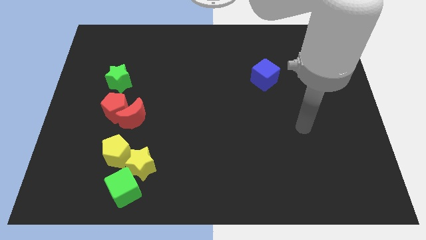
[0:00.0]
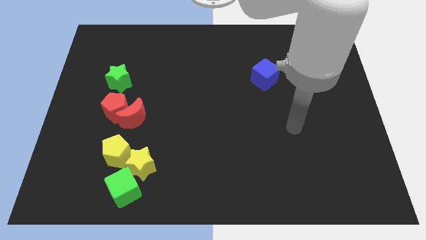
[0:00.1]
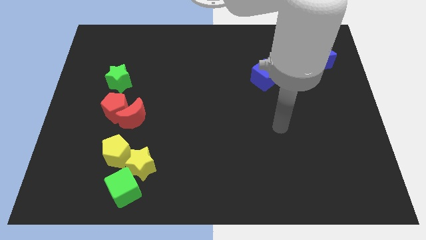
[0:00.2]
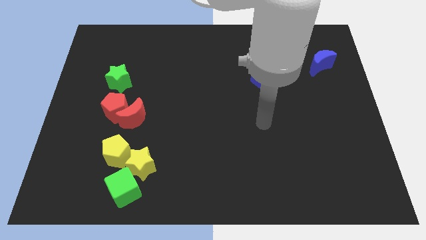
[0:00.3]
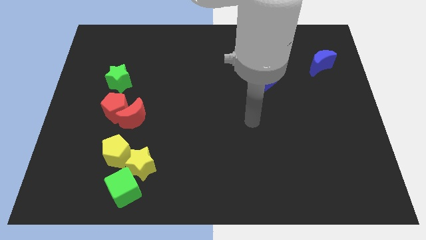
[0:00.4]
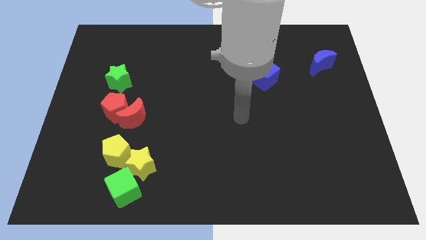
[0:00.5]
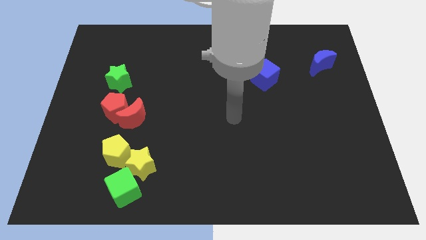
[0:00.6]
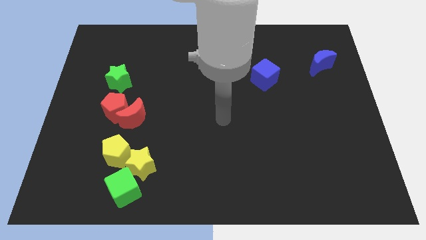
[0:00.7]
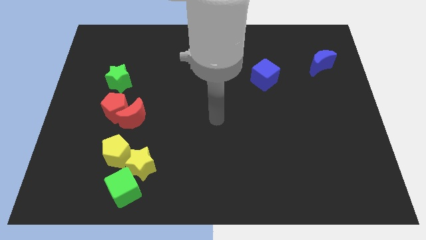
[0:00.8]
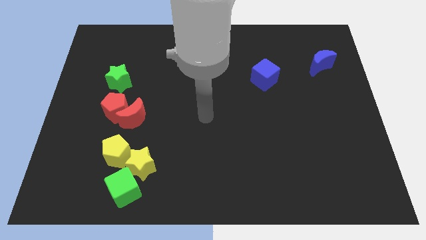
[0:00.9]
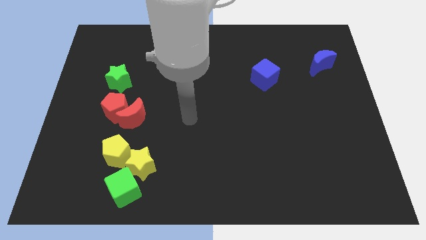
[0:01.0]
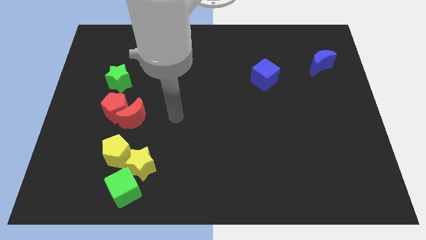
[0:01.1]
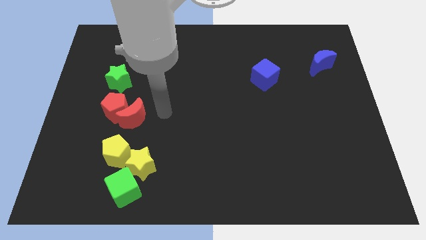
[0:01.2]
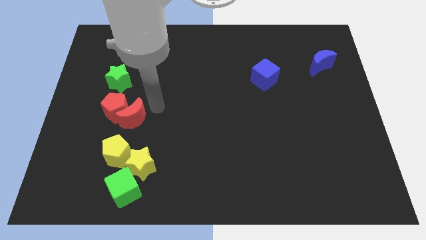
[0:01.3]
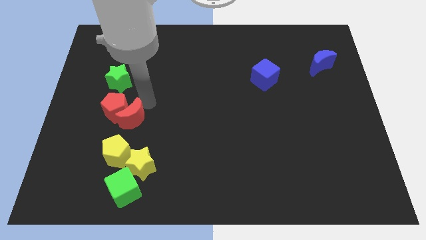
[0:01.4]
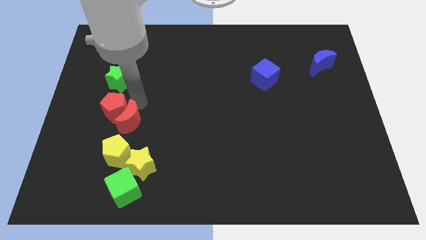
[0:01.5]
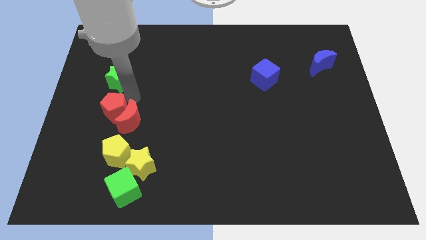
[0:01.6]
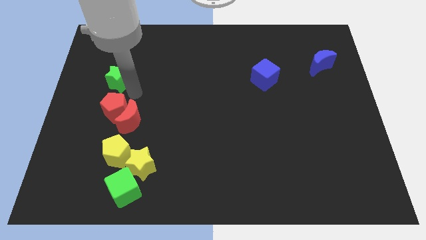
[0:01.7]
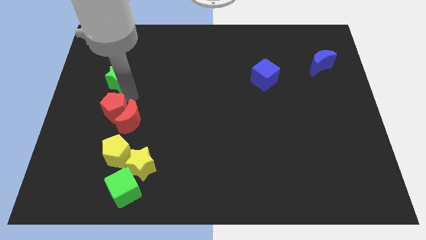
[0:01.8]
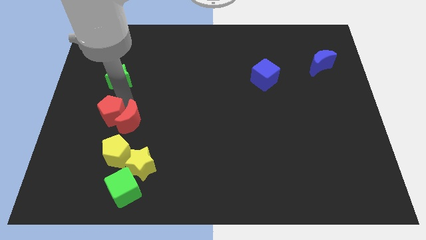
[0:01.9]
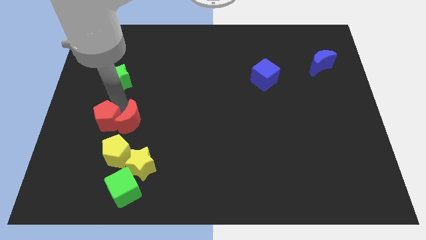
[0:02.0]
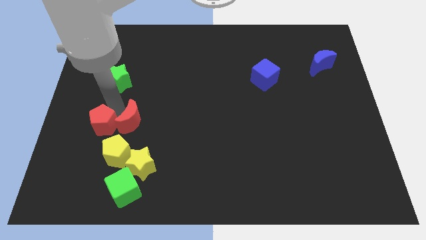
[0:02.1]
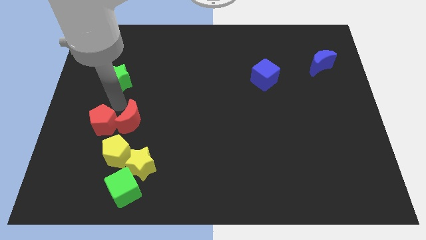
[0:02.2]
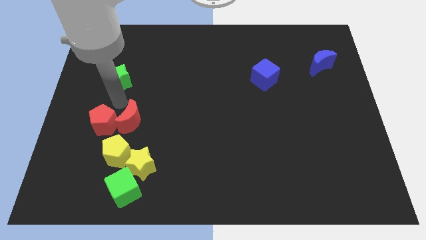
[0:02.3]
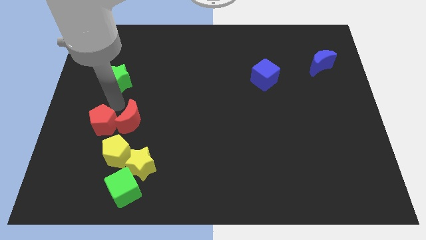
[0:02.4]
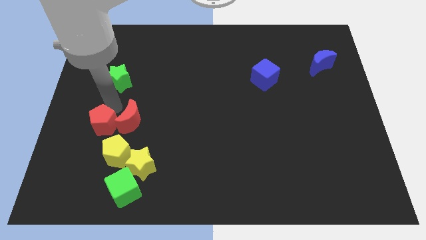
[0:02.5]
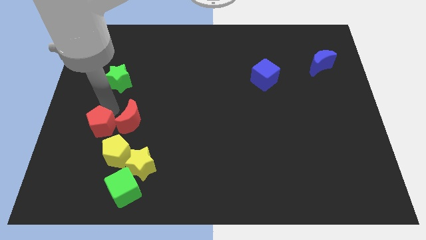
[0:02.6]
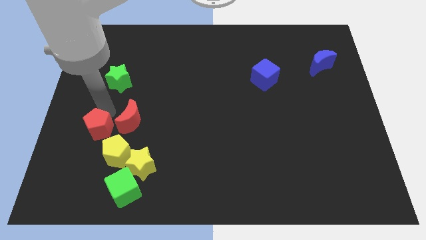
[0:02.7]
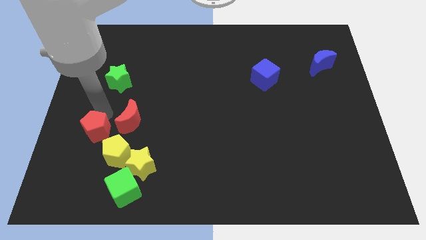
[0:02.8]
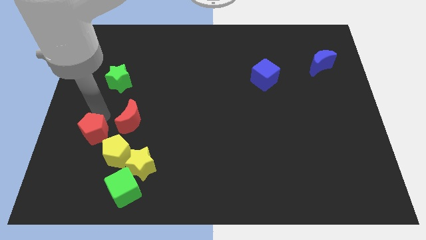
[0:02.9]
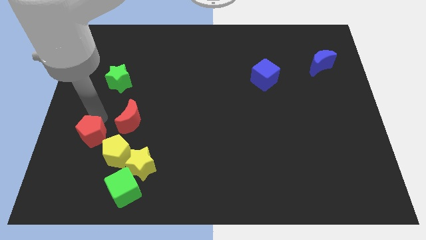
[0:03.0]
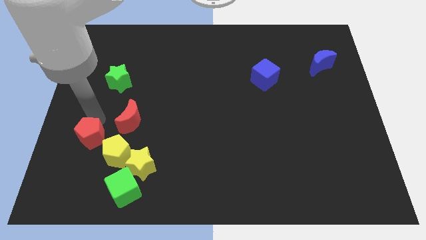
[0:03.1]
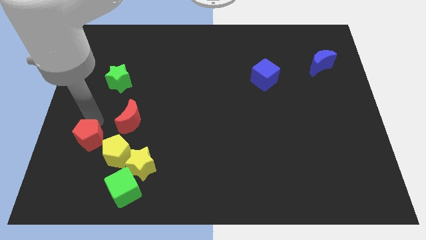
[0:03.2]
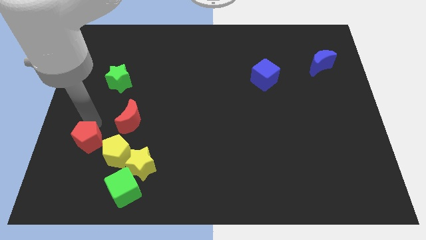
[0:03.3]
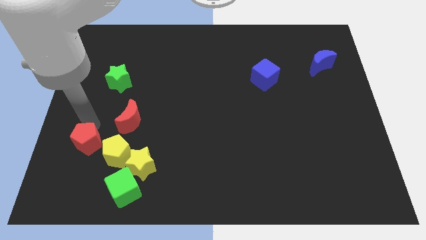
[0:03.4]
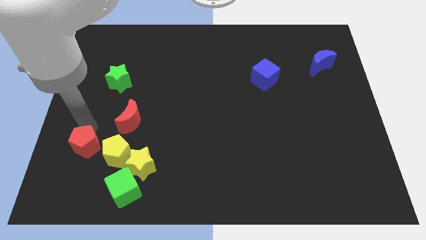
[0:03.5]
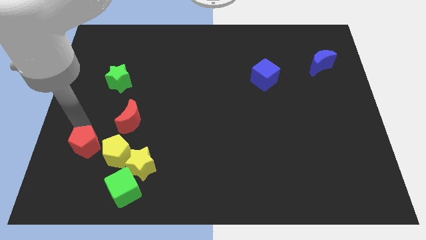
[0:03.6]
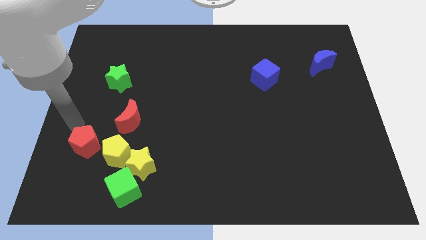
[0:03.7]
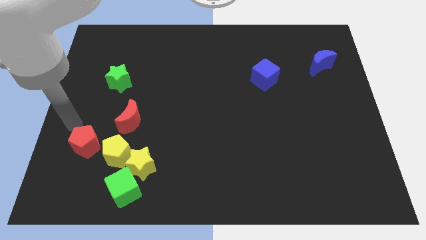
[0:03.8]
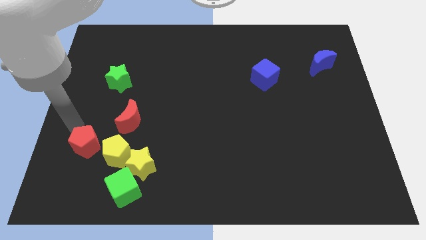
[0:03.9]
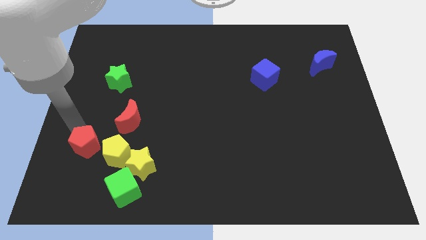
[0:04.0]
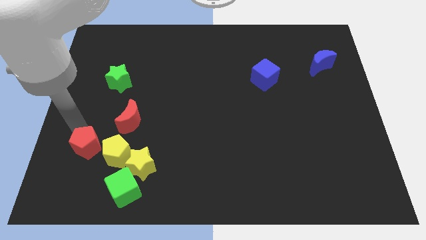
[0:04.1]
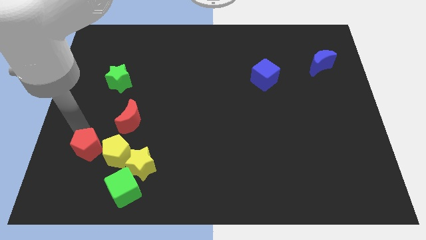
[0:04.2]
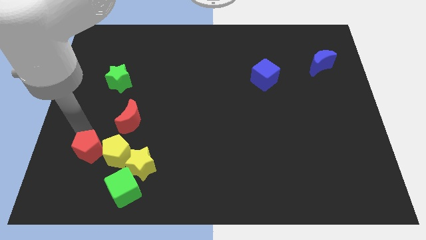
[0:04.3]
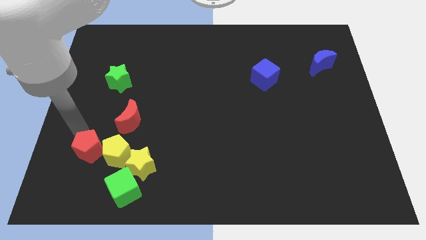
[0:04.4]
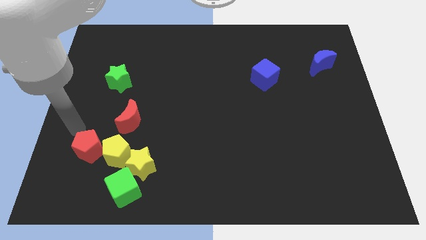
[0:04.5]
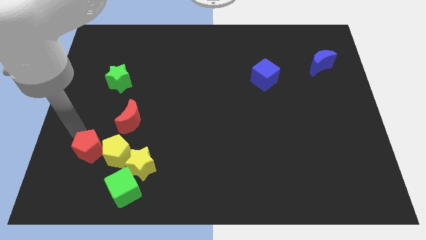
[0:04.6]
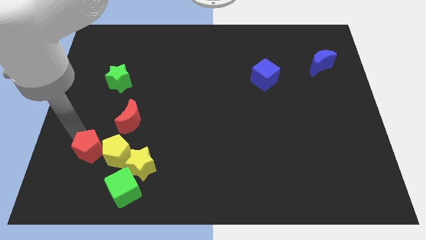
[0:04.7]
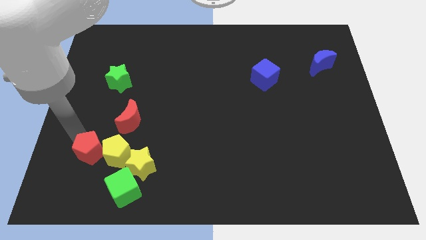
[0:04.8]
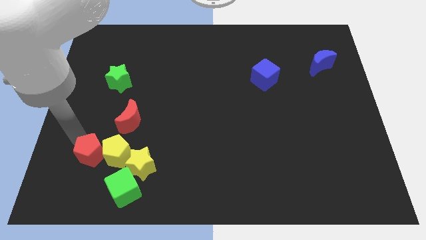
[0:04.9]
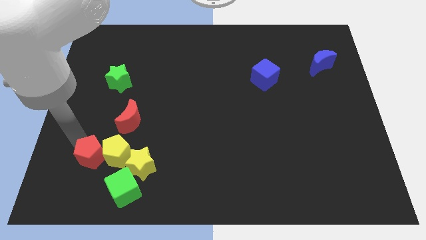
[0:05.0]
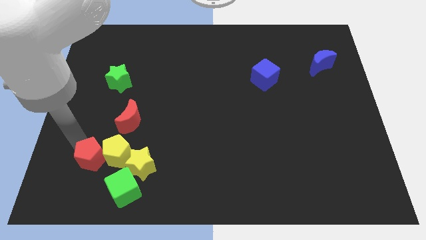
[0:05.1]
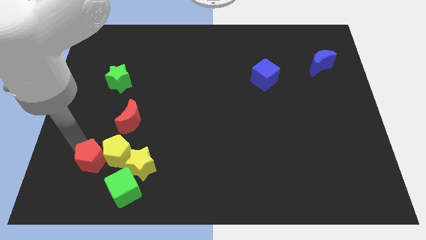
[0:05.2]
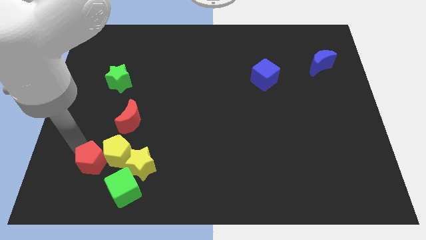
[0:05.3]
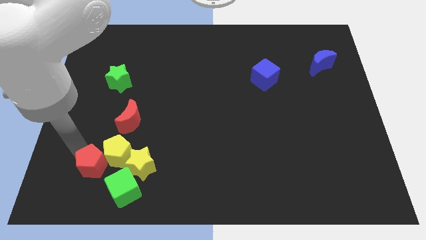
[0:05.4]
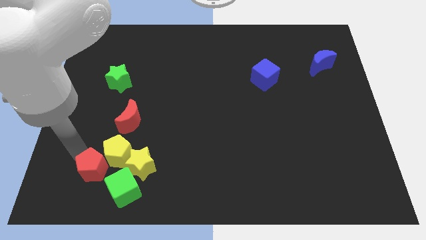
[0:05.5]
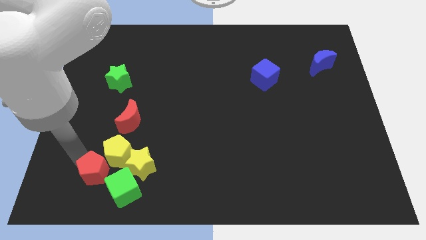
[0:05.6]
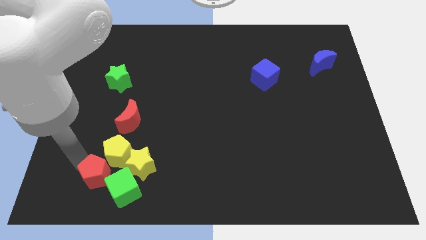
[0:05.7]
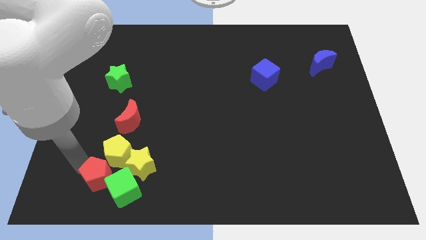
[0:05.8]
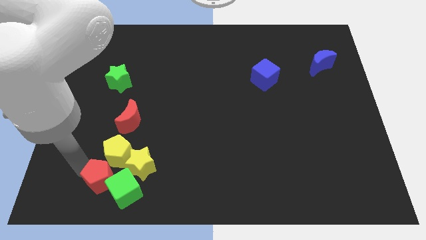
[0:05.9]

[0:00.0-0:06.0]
push the red pentagon towards the green cube

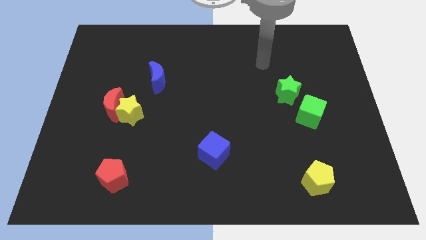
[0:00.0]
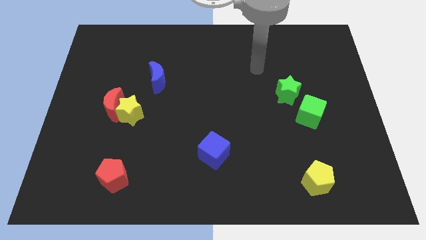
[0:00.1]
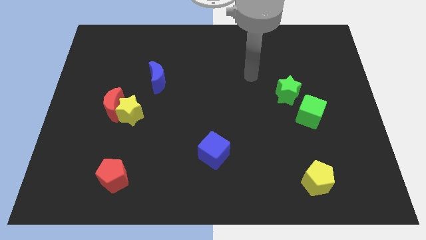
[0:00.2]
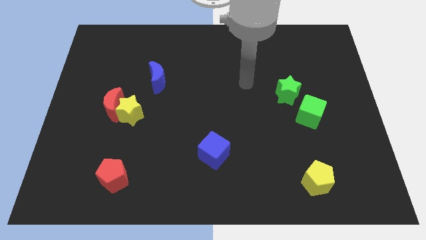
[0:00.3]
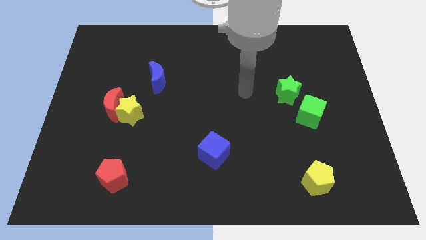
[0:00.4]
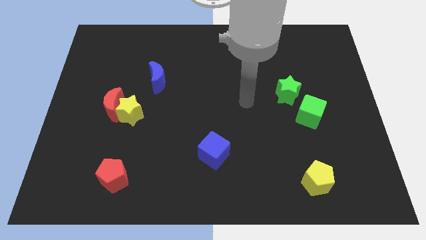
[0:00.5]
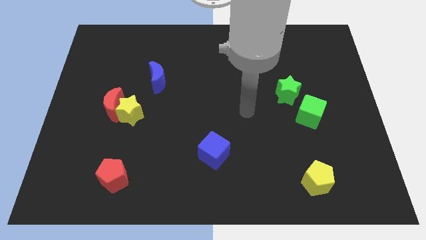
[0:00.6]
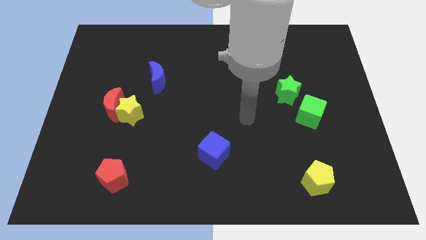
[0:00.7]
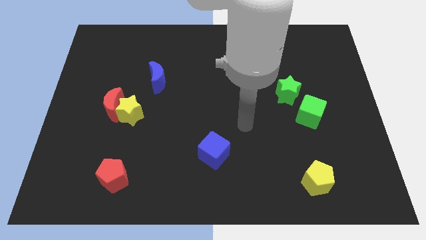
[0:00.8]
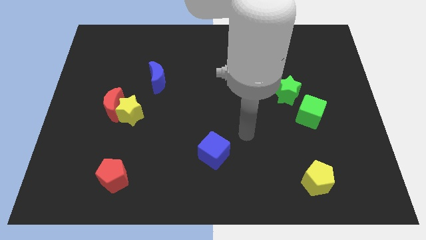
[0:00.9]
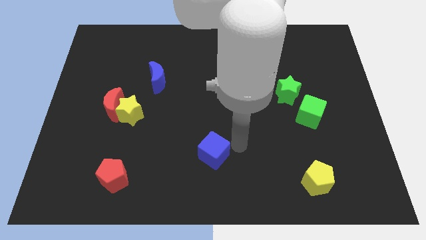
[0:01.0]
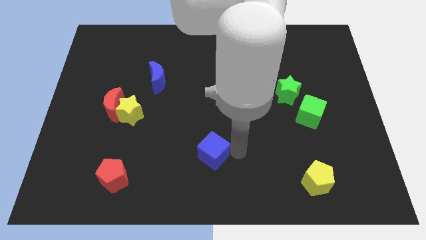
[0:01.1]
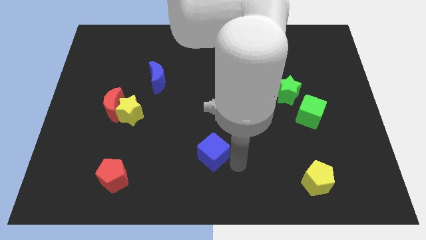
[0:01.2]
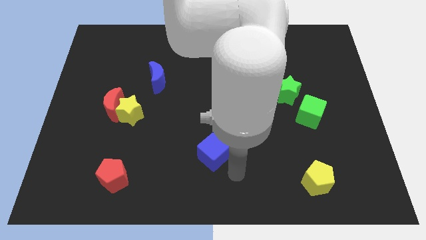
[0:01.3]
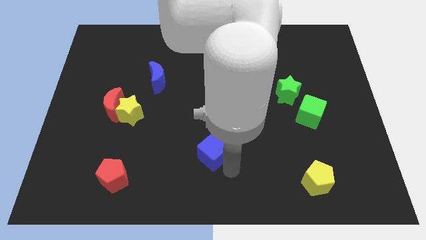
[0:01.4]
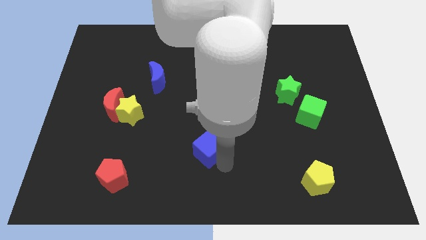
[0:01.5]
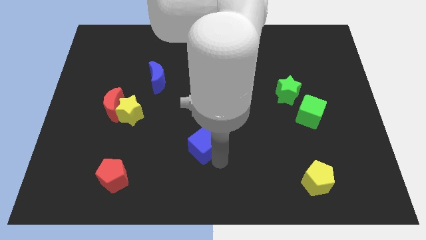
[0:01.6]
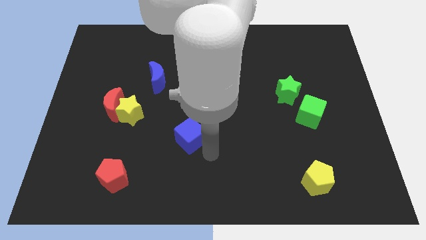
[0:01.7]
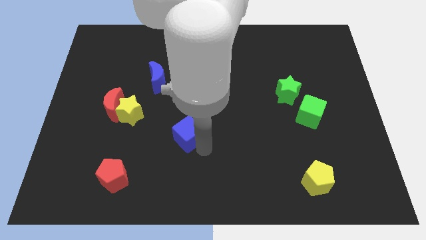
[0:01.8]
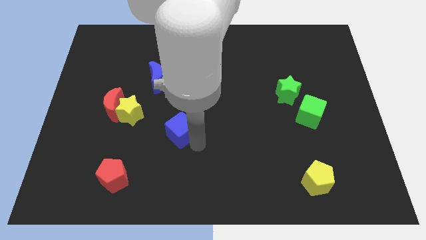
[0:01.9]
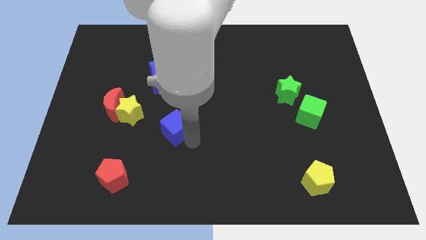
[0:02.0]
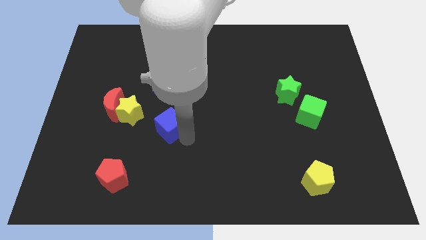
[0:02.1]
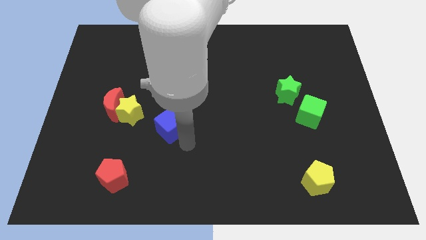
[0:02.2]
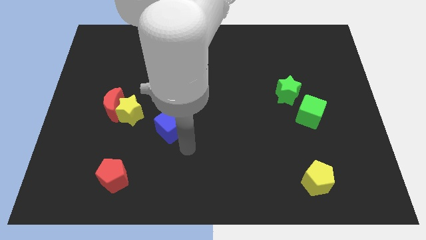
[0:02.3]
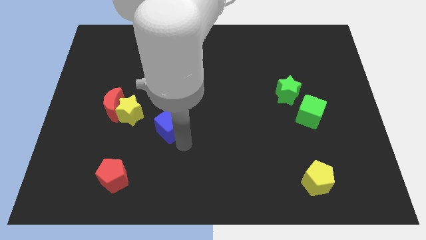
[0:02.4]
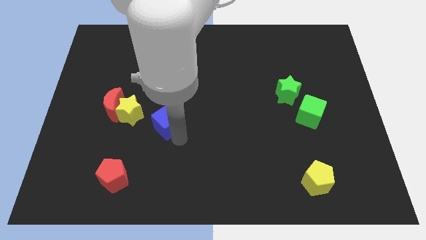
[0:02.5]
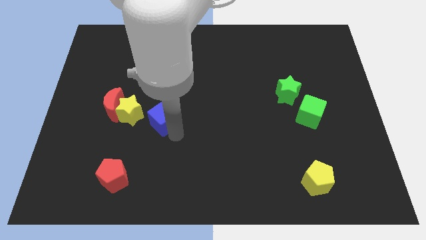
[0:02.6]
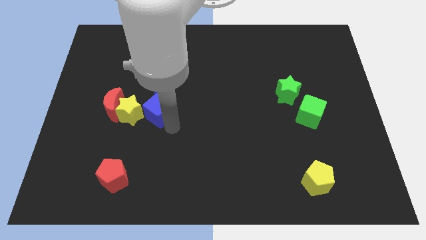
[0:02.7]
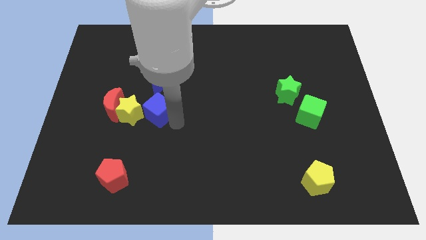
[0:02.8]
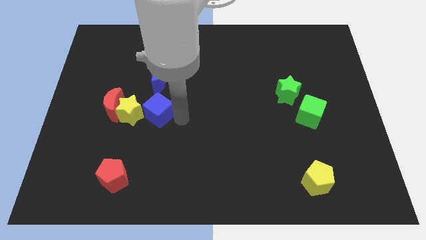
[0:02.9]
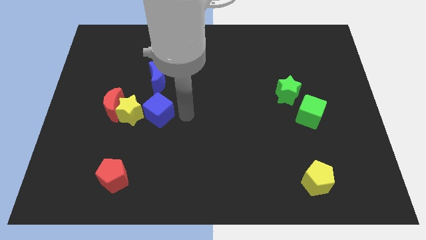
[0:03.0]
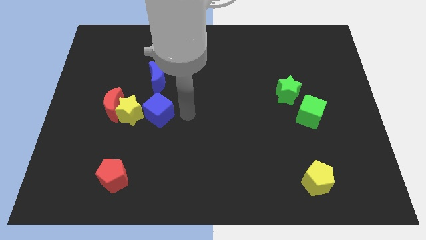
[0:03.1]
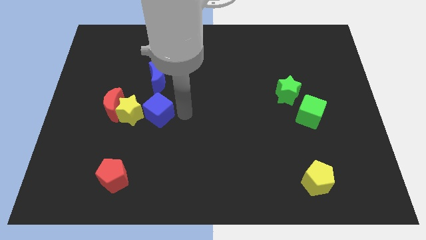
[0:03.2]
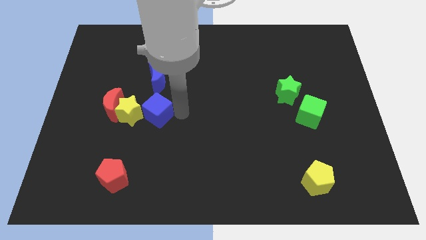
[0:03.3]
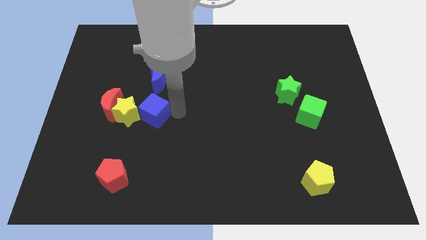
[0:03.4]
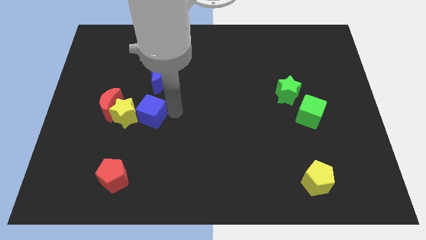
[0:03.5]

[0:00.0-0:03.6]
slide the blue cube towards the yellow star
